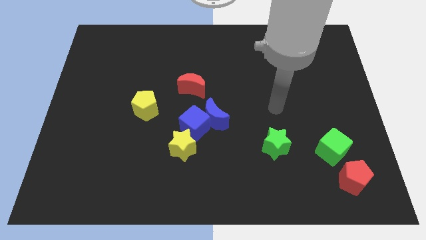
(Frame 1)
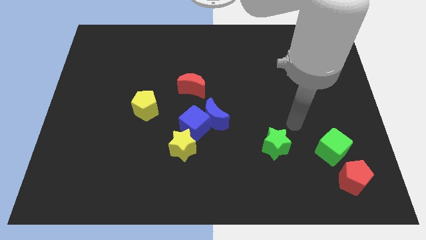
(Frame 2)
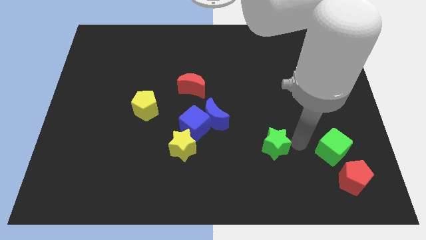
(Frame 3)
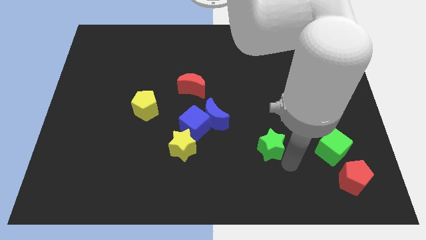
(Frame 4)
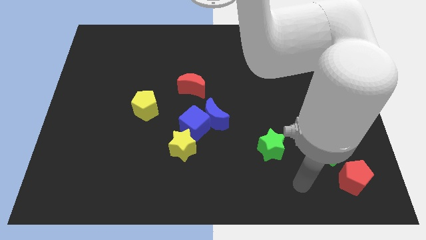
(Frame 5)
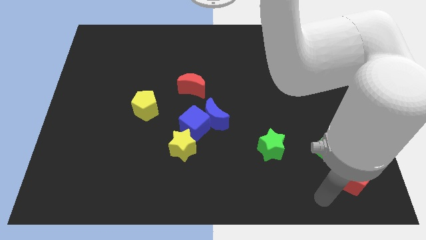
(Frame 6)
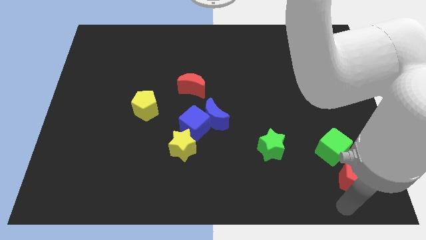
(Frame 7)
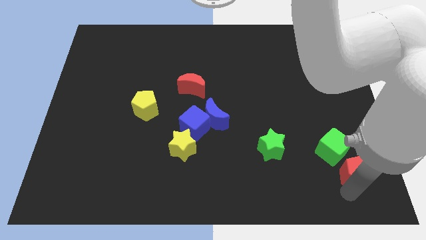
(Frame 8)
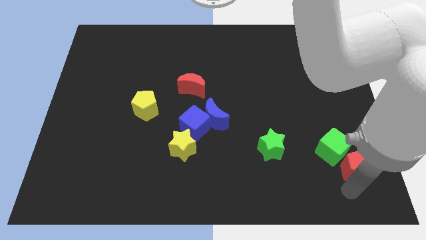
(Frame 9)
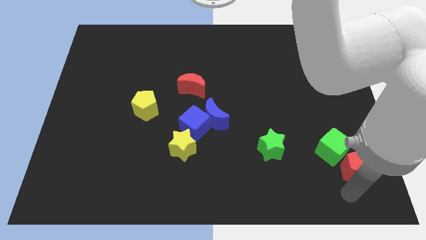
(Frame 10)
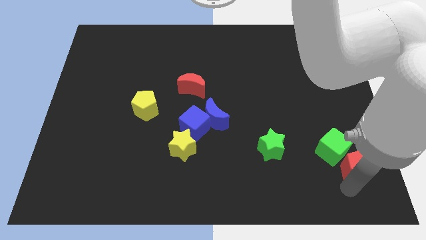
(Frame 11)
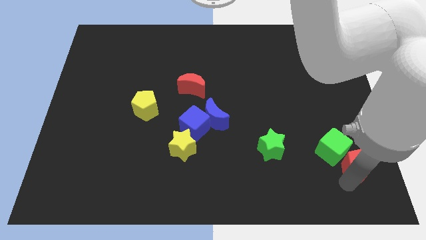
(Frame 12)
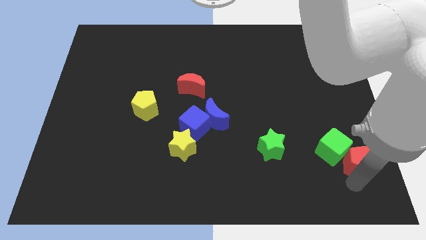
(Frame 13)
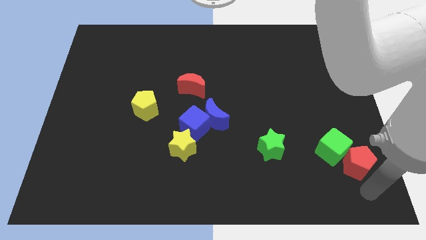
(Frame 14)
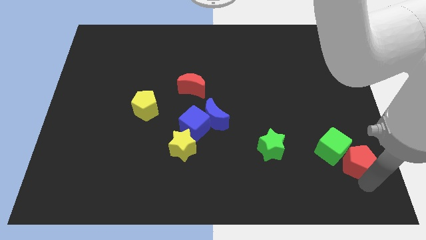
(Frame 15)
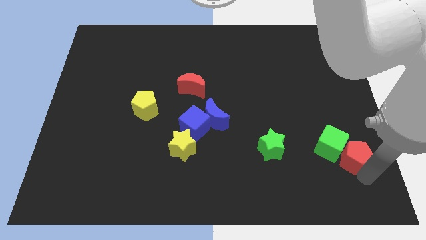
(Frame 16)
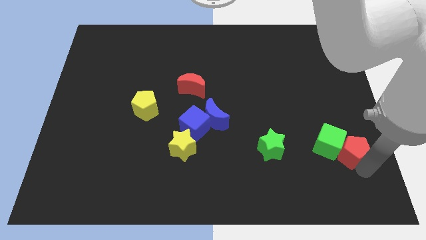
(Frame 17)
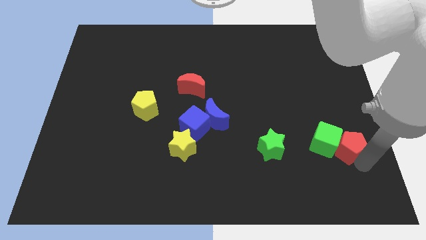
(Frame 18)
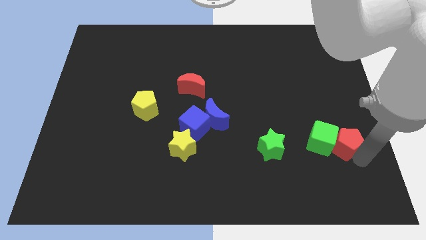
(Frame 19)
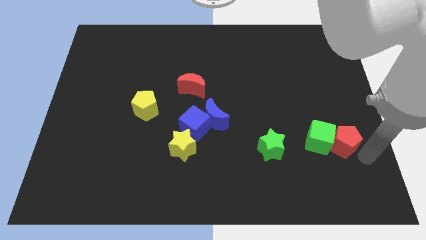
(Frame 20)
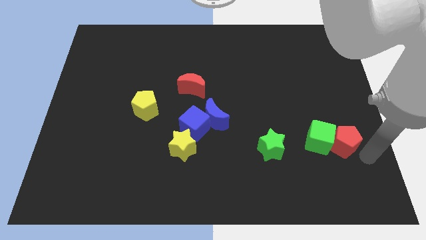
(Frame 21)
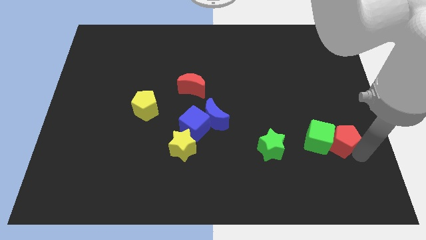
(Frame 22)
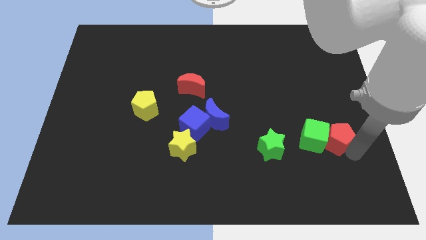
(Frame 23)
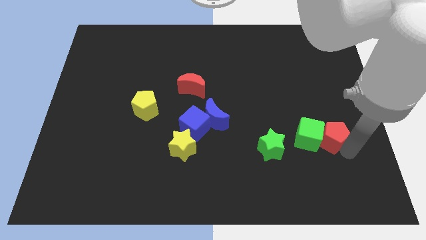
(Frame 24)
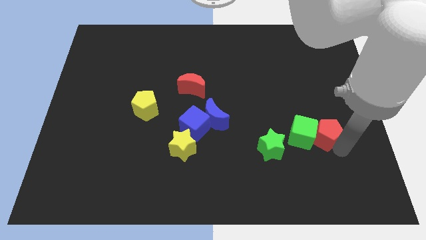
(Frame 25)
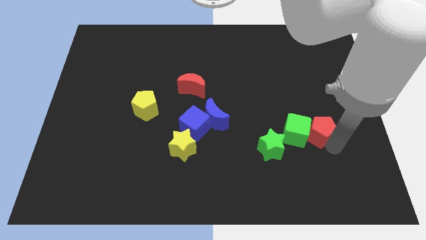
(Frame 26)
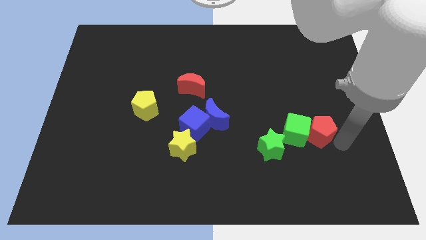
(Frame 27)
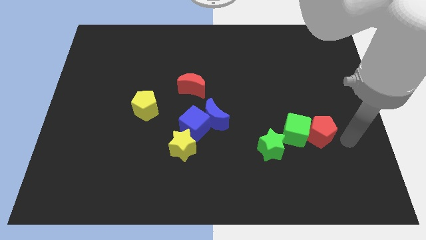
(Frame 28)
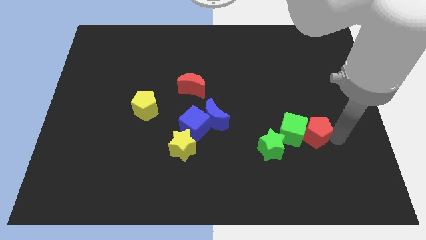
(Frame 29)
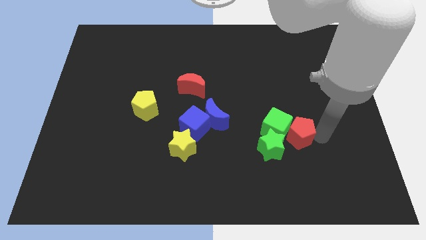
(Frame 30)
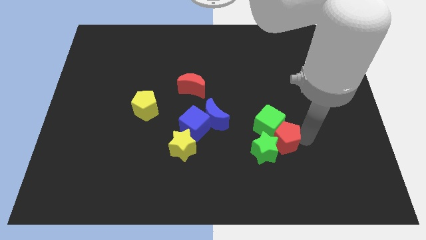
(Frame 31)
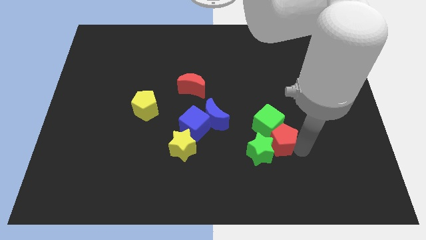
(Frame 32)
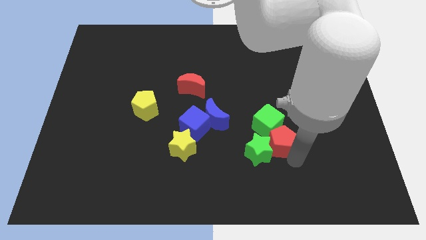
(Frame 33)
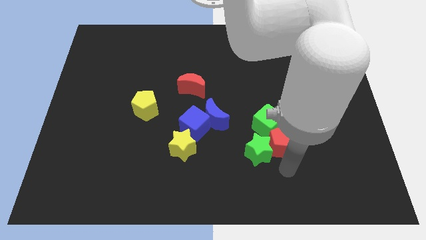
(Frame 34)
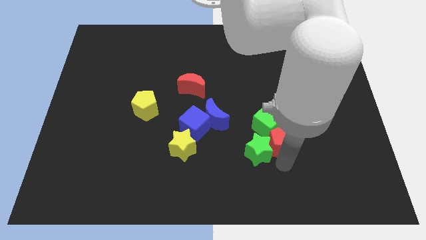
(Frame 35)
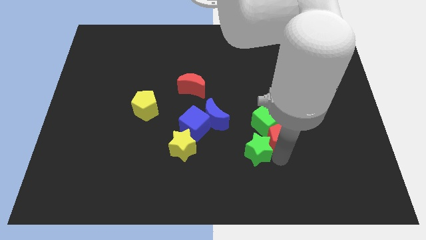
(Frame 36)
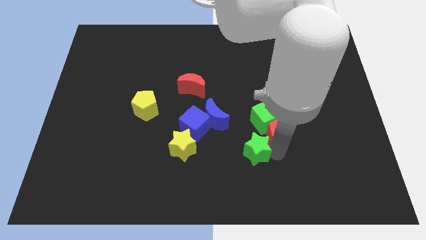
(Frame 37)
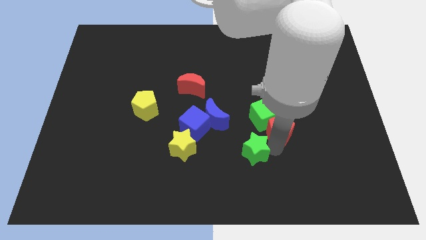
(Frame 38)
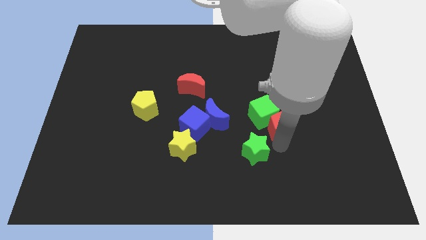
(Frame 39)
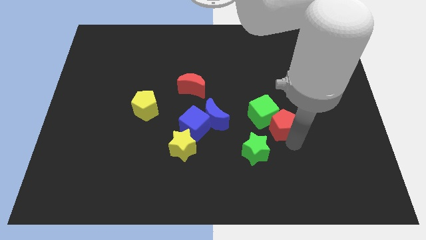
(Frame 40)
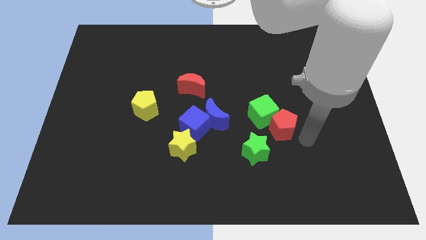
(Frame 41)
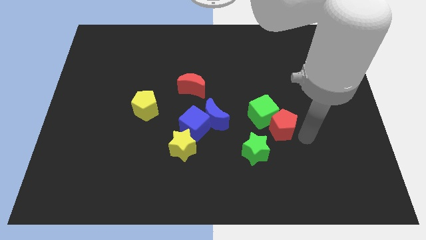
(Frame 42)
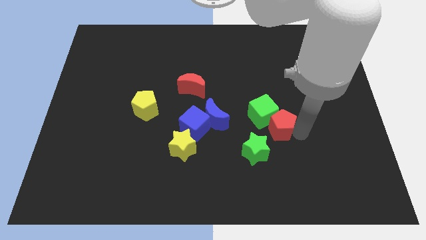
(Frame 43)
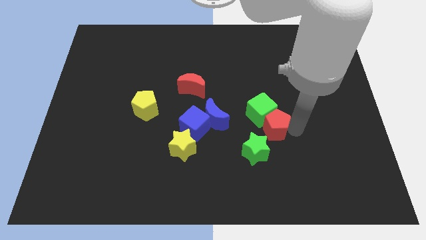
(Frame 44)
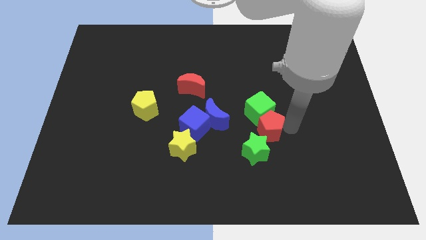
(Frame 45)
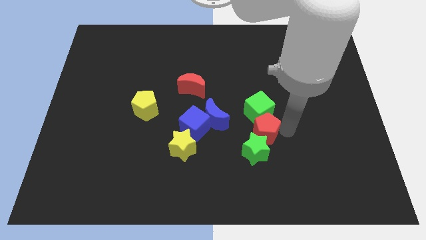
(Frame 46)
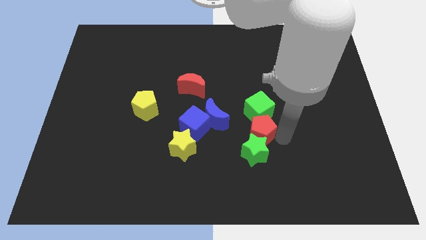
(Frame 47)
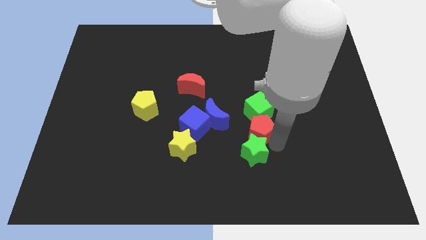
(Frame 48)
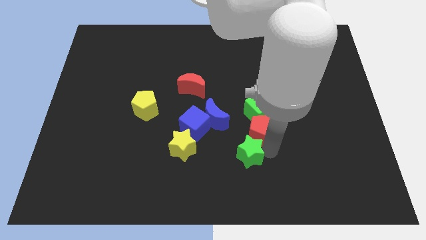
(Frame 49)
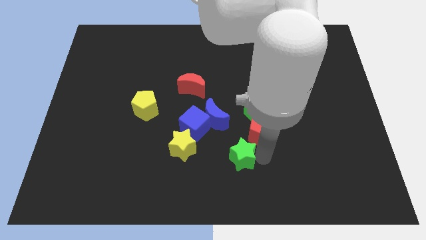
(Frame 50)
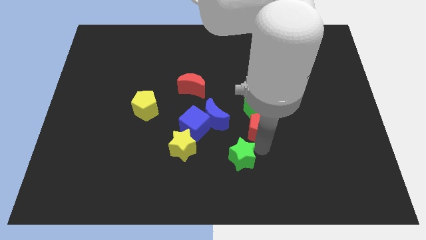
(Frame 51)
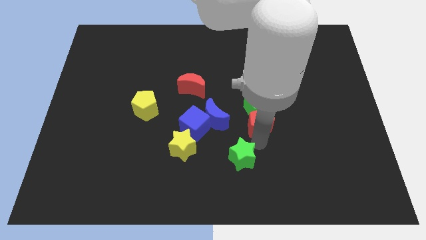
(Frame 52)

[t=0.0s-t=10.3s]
push the red pentagon to the center
